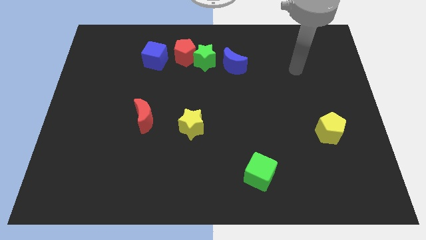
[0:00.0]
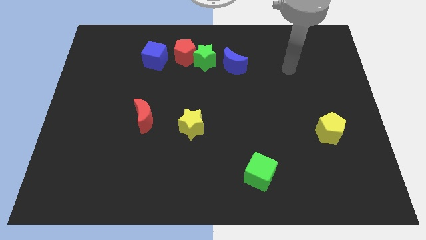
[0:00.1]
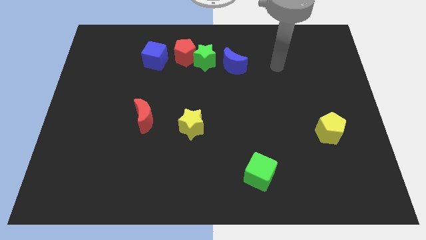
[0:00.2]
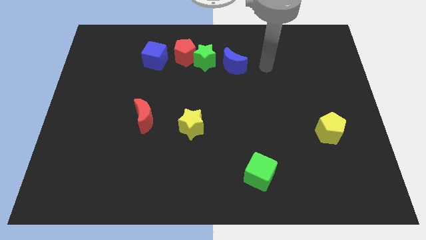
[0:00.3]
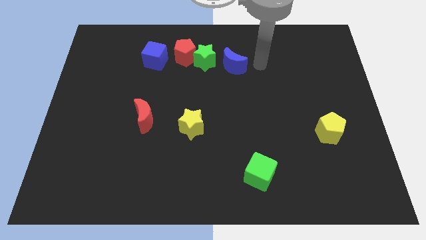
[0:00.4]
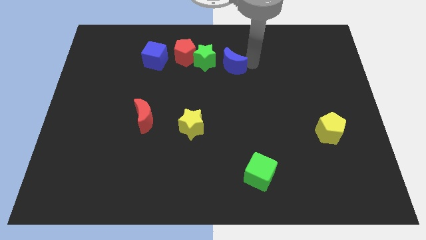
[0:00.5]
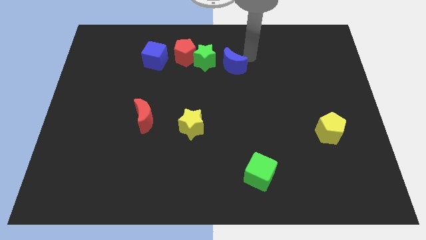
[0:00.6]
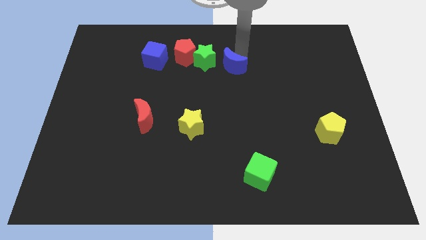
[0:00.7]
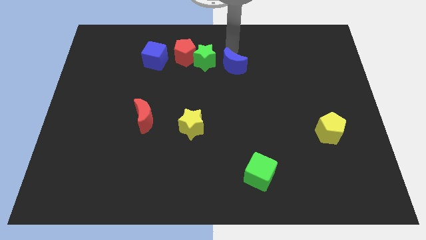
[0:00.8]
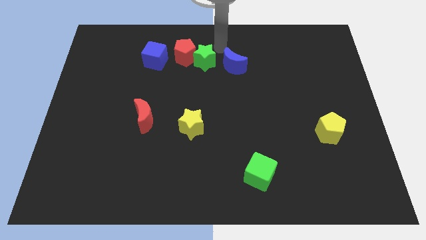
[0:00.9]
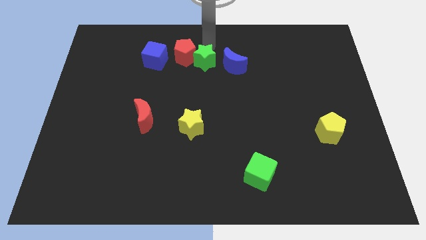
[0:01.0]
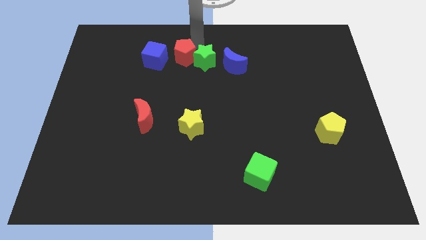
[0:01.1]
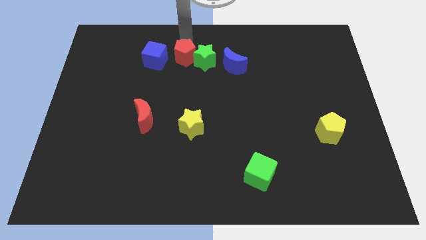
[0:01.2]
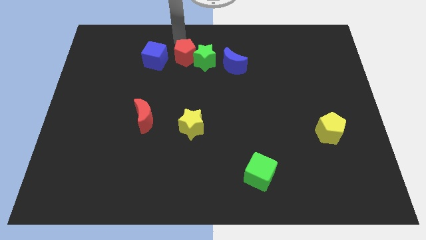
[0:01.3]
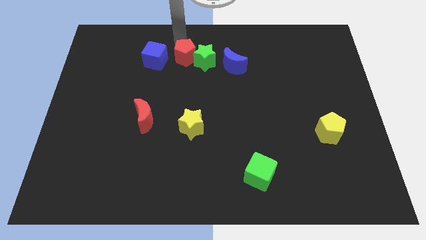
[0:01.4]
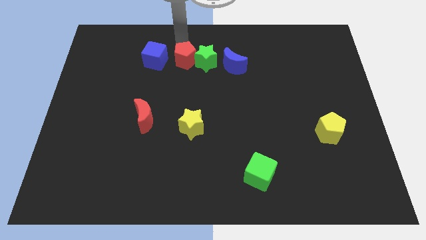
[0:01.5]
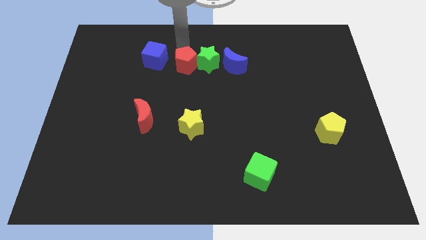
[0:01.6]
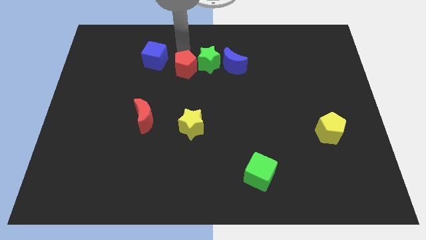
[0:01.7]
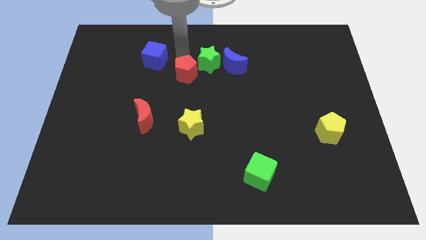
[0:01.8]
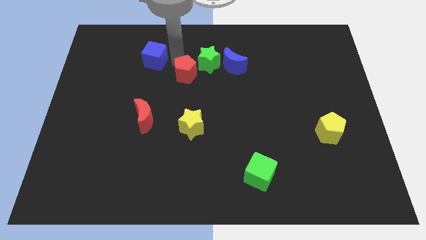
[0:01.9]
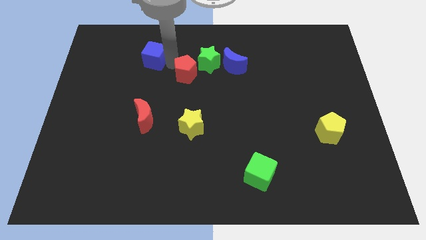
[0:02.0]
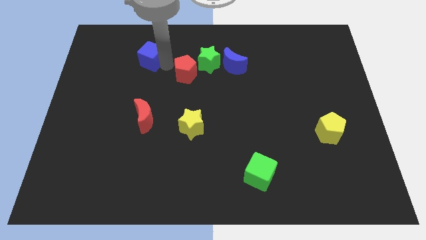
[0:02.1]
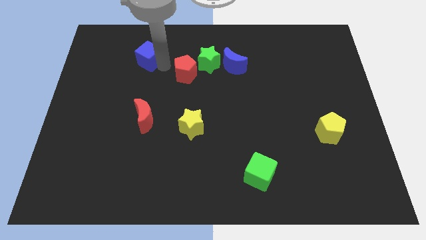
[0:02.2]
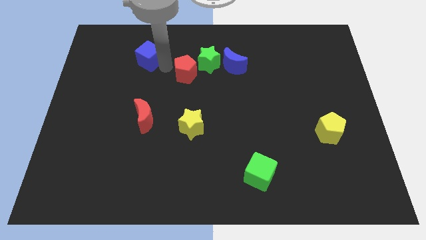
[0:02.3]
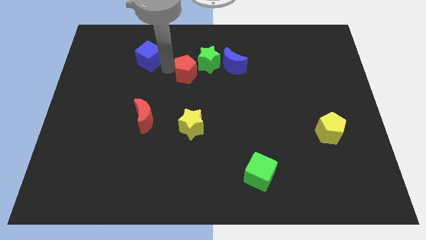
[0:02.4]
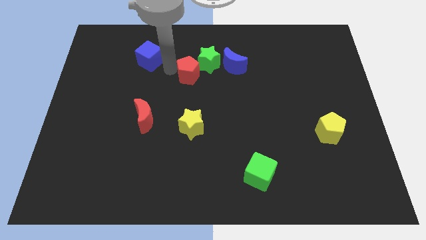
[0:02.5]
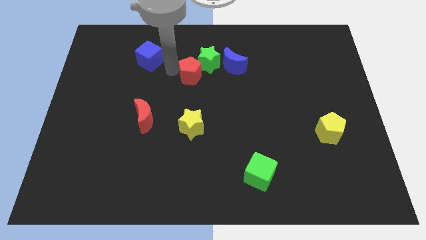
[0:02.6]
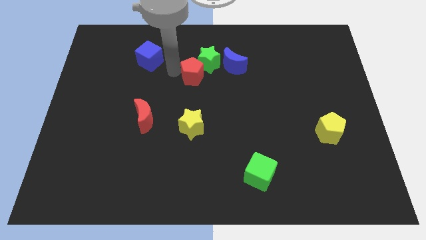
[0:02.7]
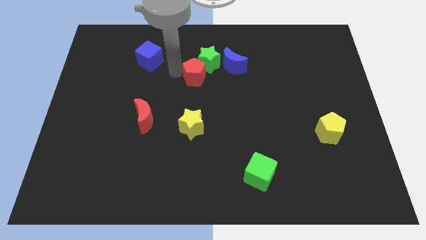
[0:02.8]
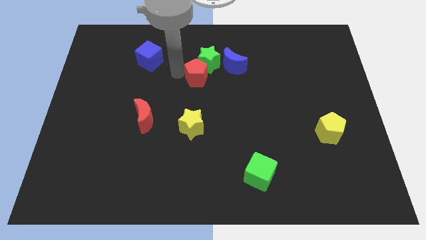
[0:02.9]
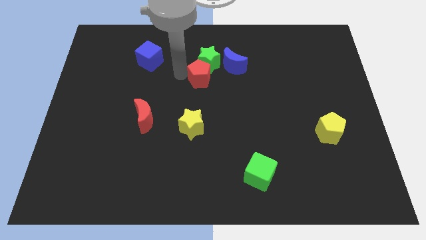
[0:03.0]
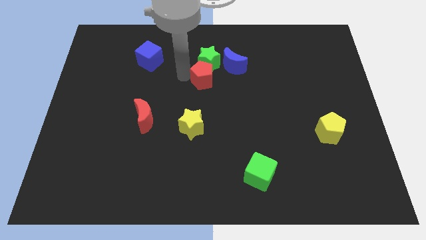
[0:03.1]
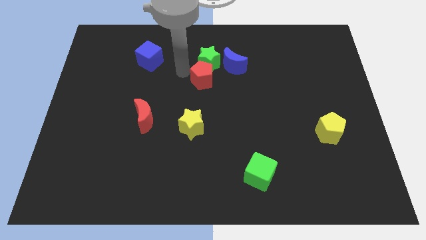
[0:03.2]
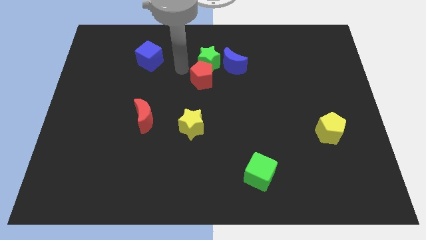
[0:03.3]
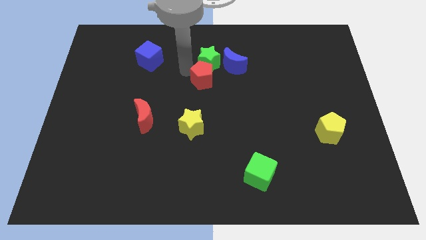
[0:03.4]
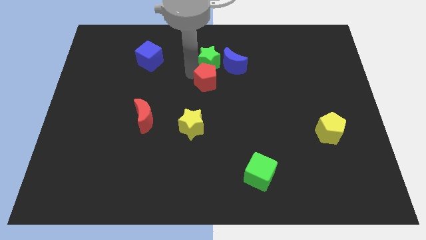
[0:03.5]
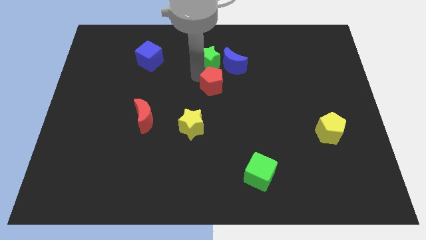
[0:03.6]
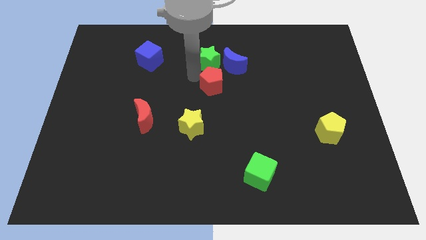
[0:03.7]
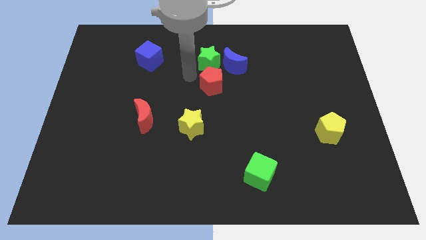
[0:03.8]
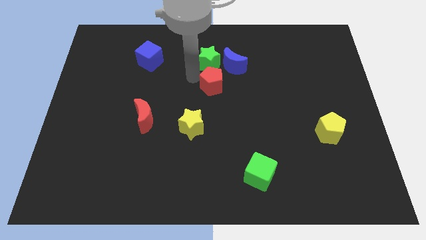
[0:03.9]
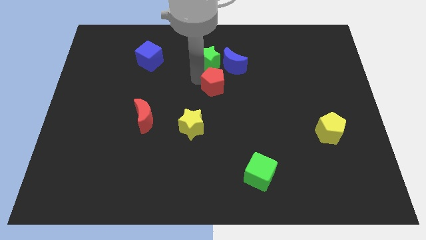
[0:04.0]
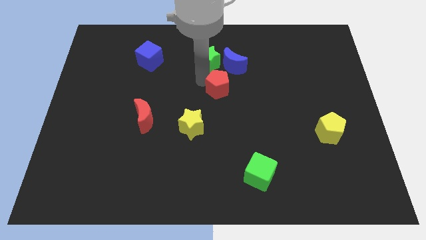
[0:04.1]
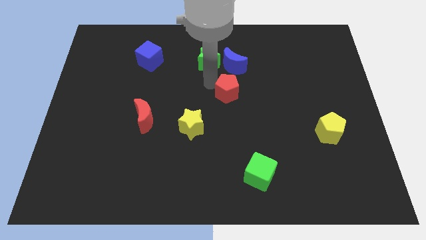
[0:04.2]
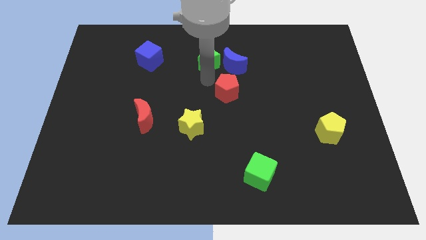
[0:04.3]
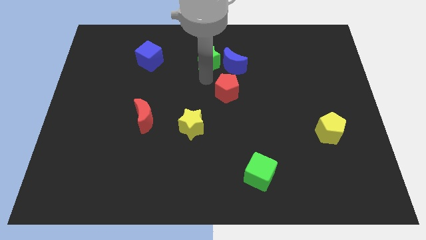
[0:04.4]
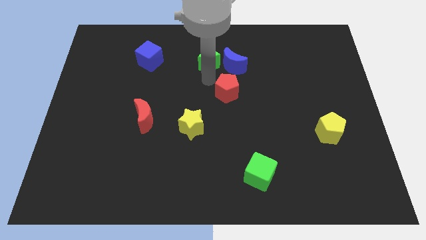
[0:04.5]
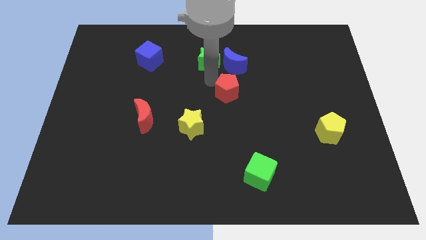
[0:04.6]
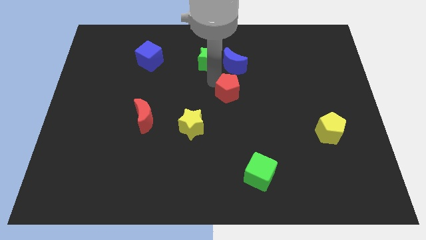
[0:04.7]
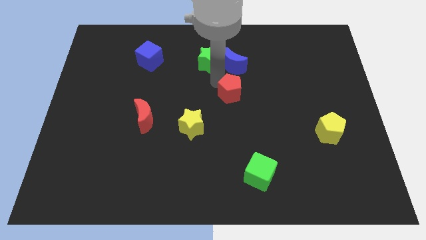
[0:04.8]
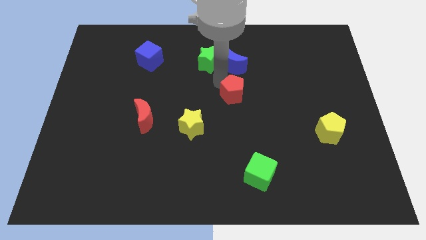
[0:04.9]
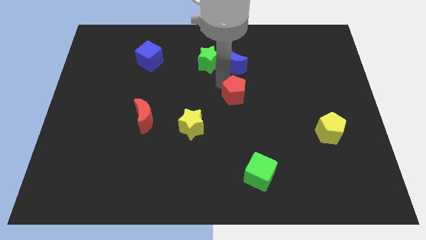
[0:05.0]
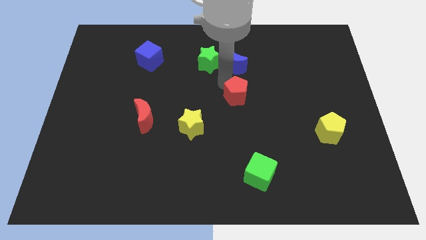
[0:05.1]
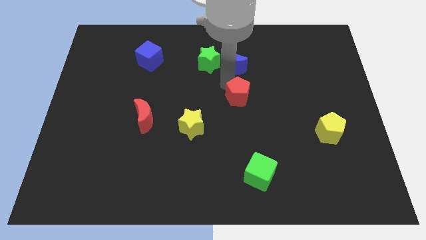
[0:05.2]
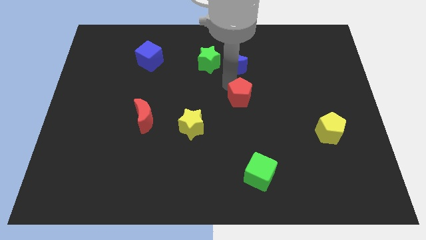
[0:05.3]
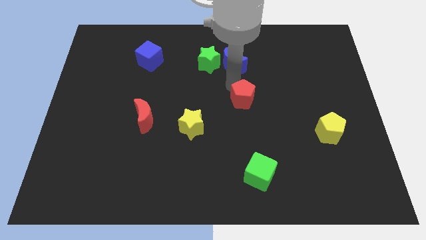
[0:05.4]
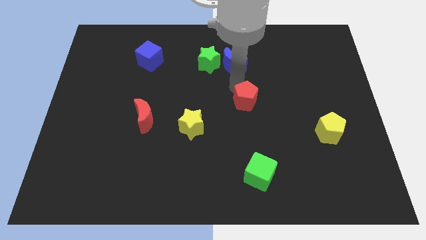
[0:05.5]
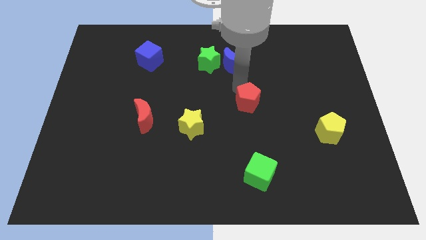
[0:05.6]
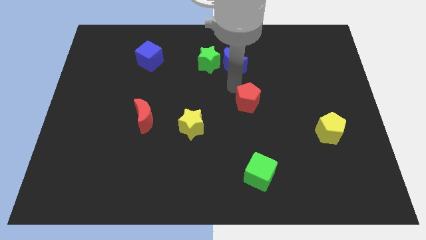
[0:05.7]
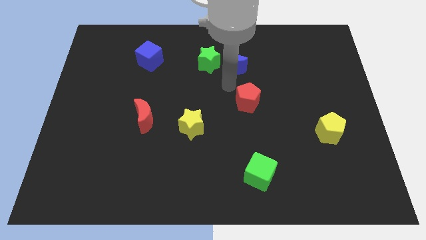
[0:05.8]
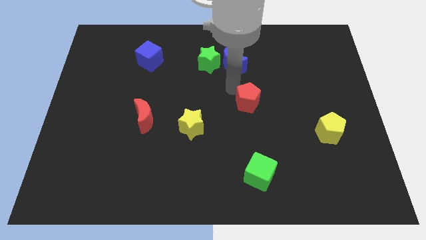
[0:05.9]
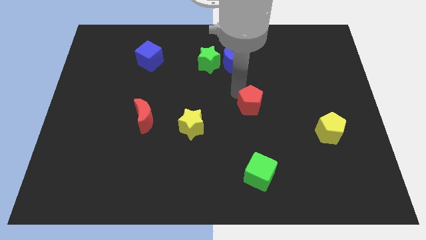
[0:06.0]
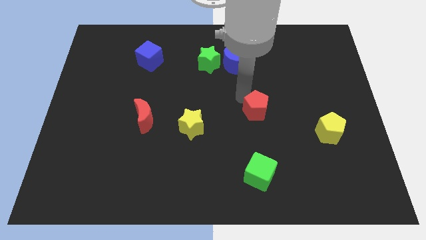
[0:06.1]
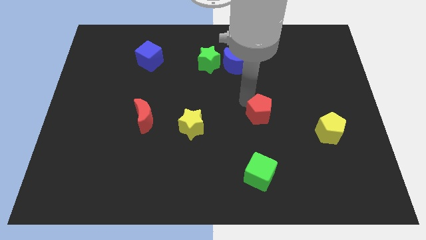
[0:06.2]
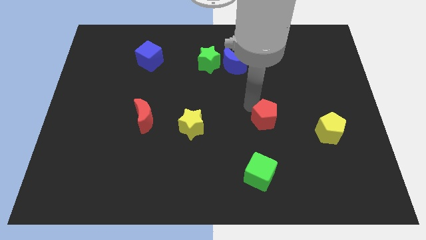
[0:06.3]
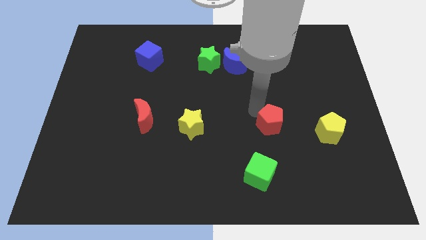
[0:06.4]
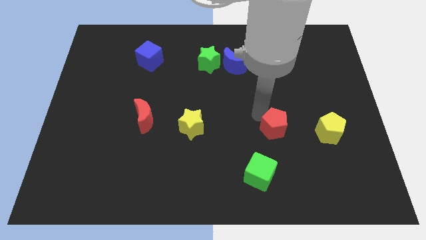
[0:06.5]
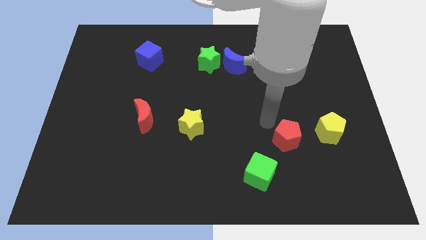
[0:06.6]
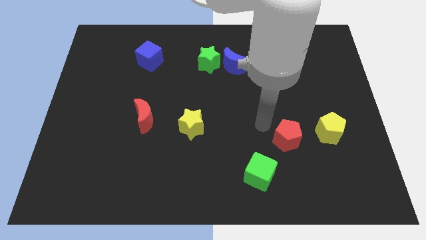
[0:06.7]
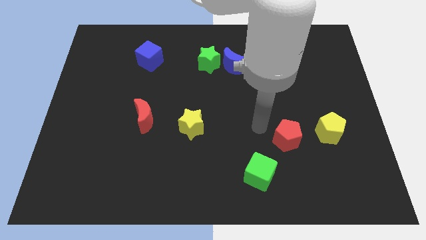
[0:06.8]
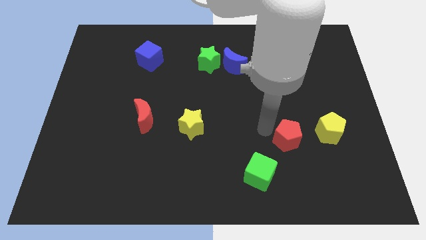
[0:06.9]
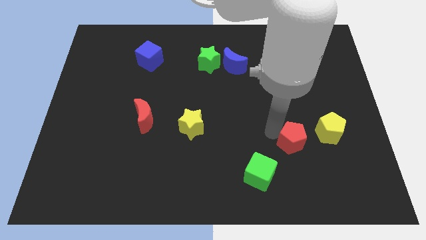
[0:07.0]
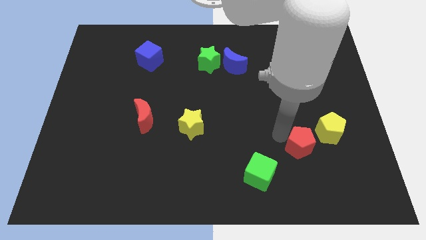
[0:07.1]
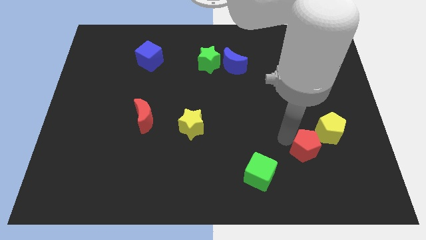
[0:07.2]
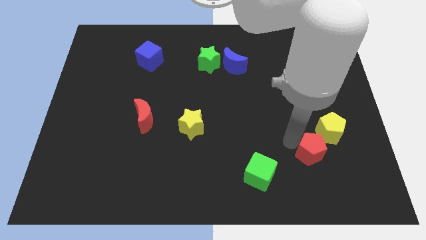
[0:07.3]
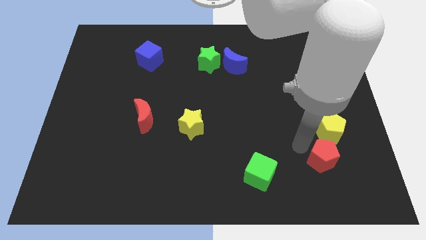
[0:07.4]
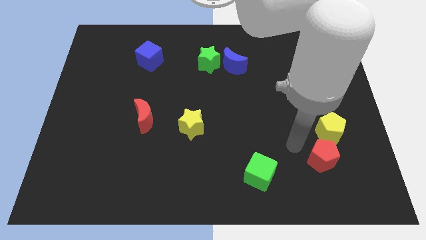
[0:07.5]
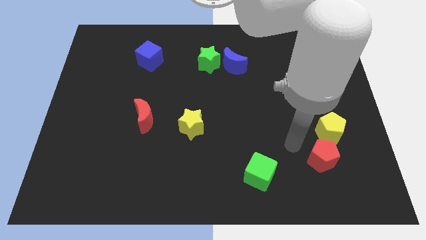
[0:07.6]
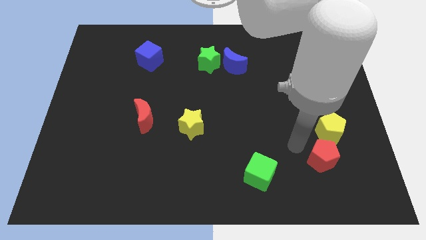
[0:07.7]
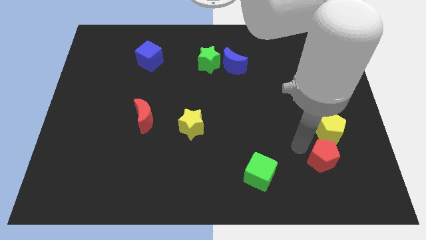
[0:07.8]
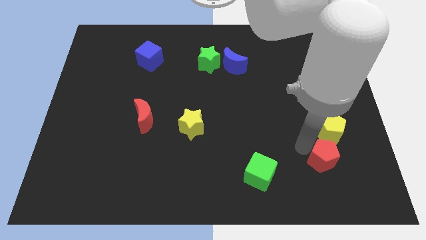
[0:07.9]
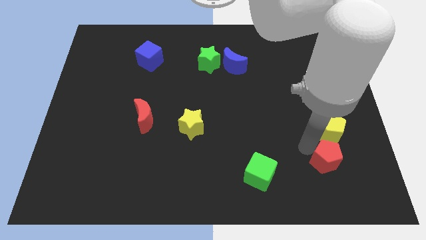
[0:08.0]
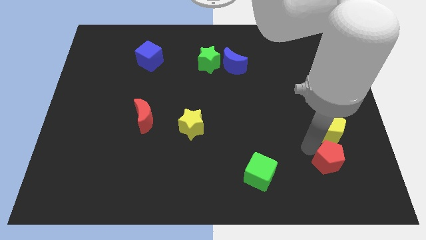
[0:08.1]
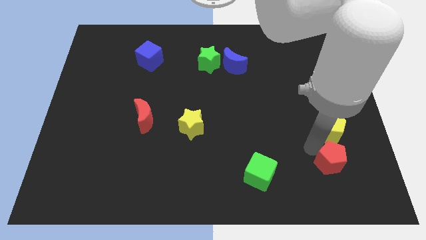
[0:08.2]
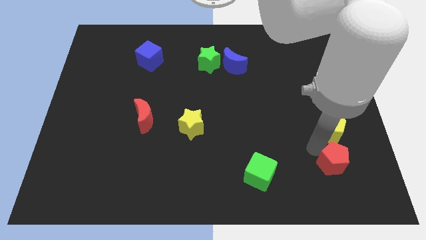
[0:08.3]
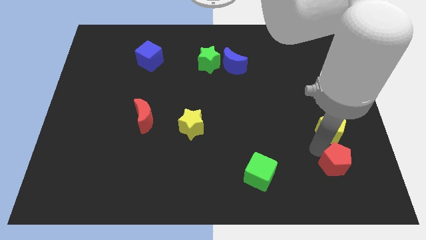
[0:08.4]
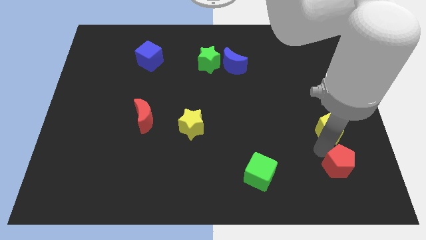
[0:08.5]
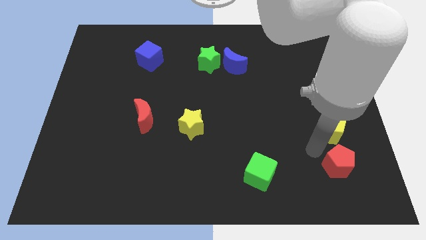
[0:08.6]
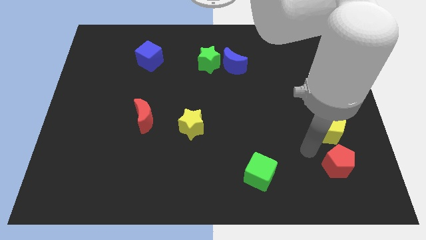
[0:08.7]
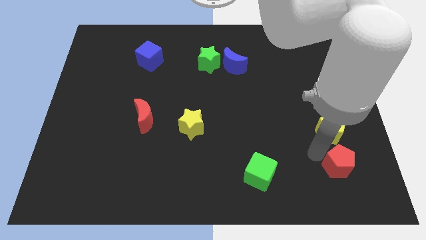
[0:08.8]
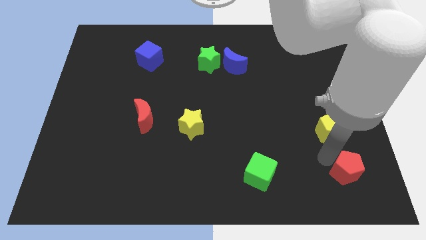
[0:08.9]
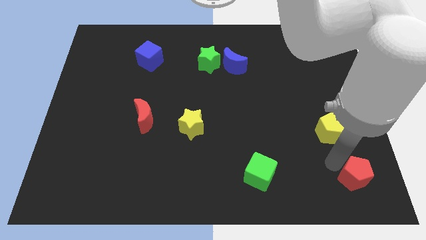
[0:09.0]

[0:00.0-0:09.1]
push the red pentagon to the bottom right of the board
